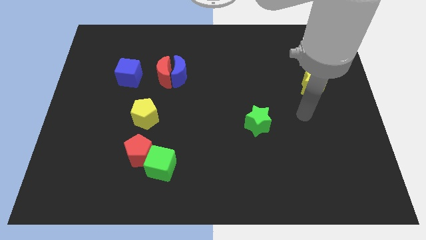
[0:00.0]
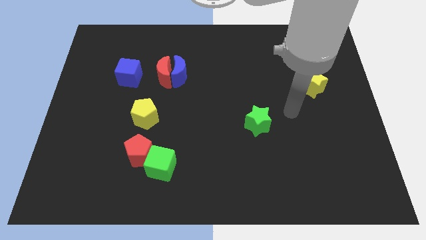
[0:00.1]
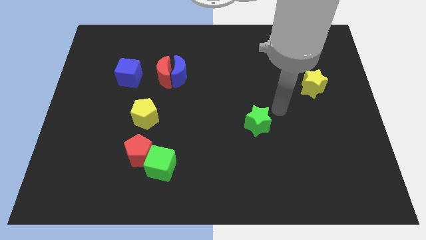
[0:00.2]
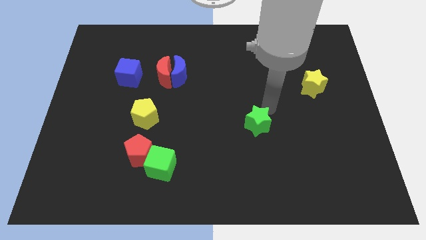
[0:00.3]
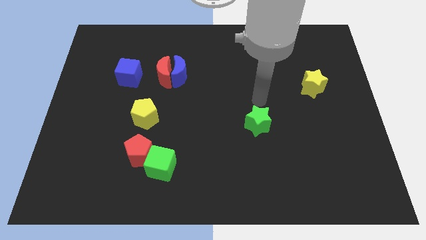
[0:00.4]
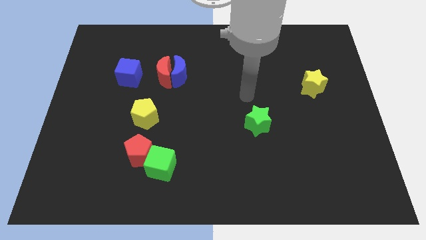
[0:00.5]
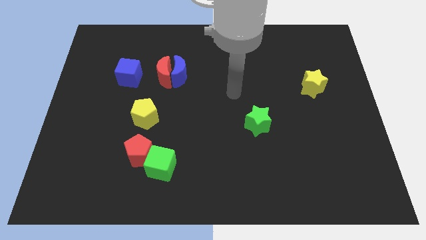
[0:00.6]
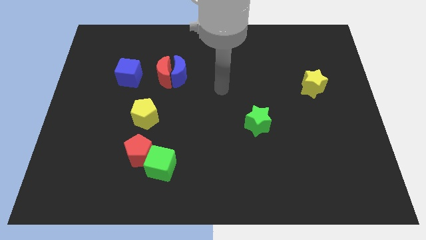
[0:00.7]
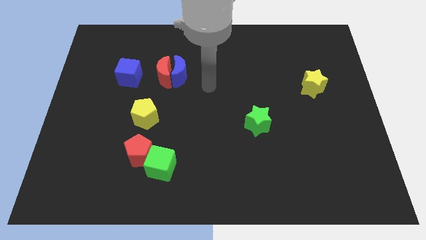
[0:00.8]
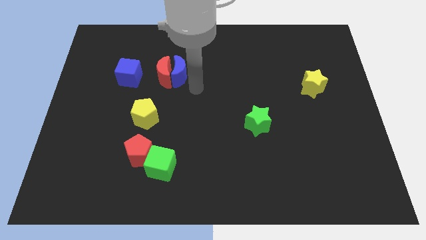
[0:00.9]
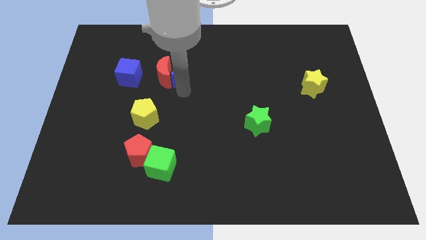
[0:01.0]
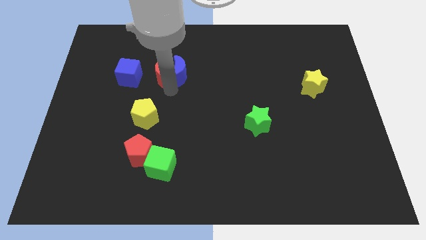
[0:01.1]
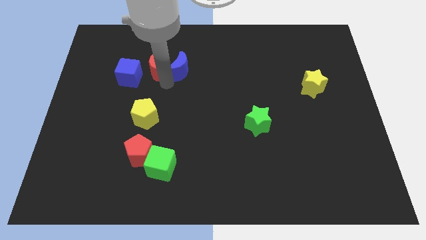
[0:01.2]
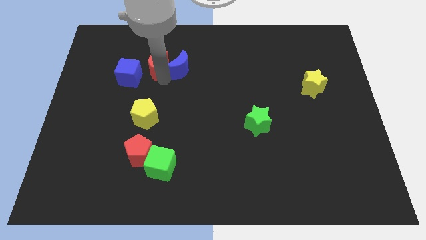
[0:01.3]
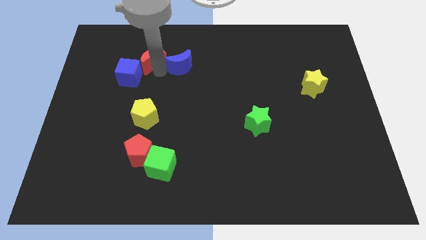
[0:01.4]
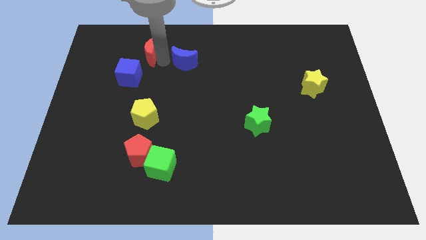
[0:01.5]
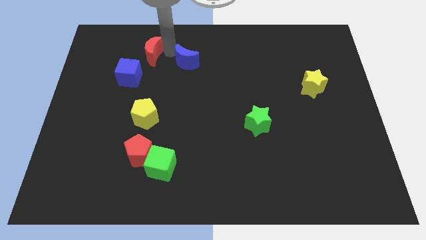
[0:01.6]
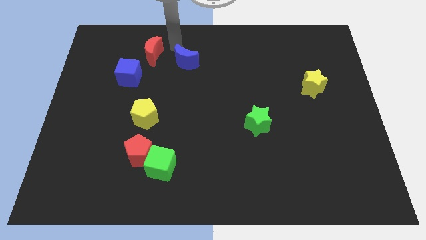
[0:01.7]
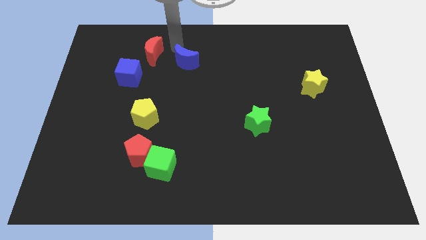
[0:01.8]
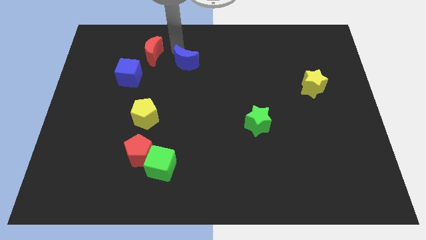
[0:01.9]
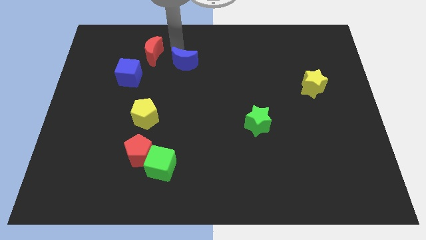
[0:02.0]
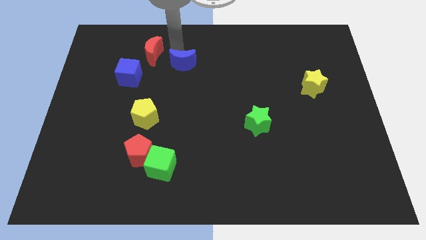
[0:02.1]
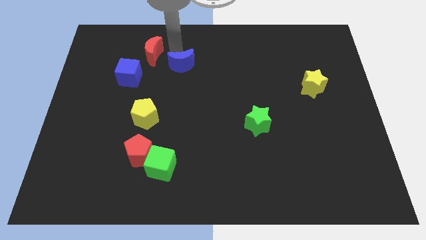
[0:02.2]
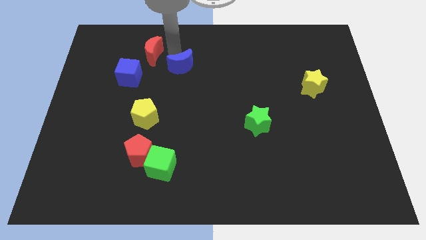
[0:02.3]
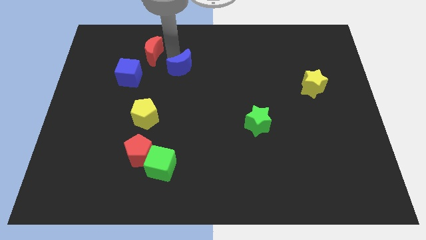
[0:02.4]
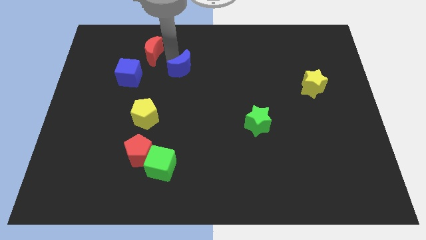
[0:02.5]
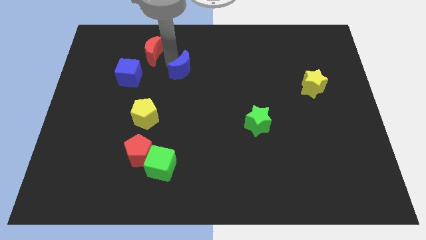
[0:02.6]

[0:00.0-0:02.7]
move the blue moon away from the red moon

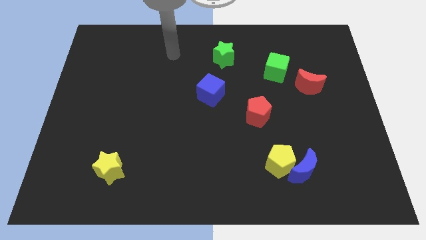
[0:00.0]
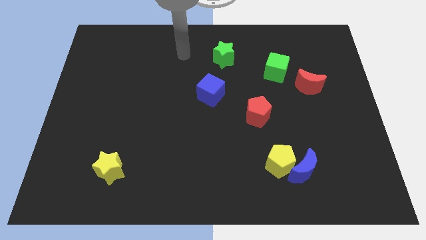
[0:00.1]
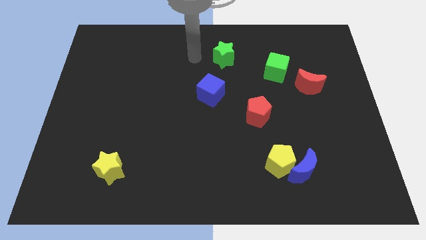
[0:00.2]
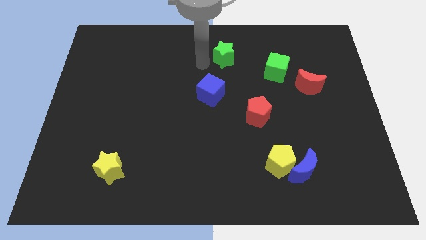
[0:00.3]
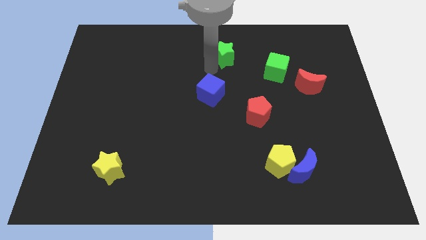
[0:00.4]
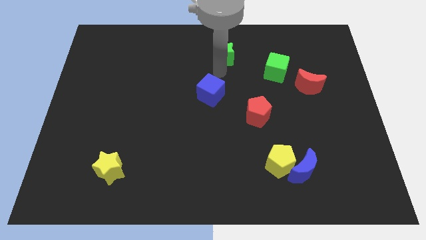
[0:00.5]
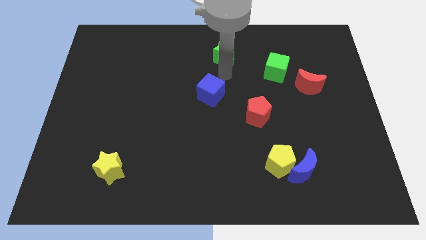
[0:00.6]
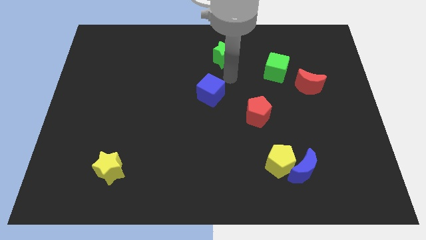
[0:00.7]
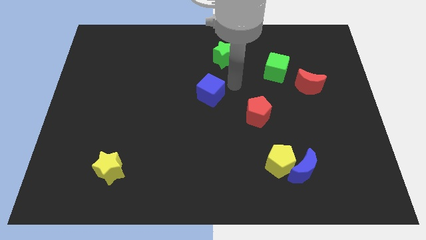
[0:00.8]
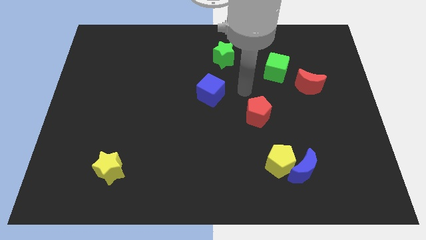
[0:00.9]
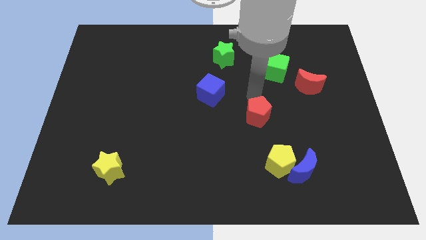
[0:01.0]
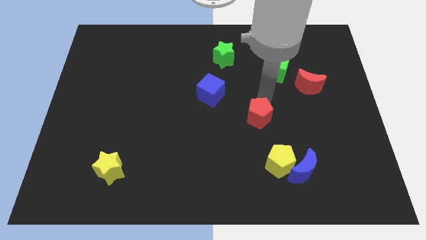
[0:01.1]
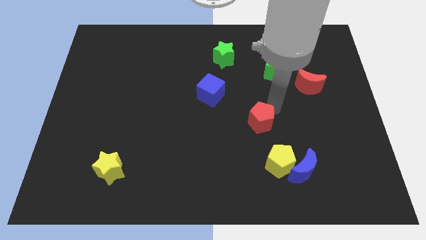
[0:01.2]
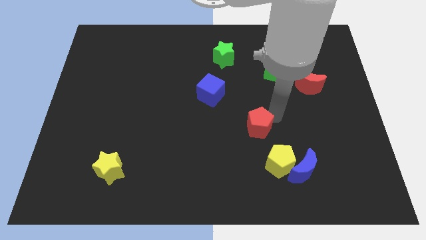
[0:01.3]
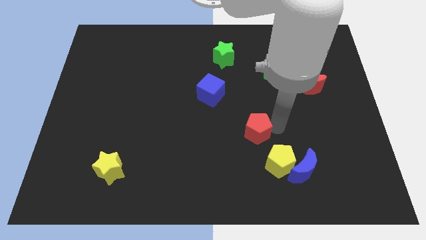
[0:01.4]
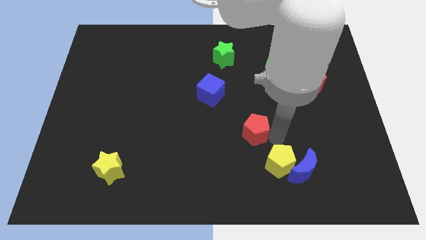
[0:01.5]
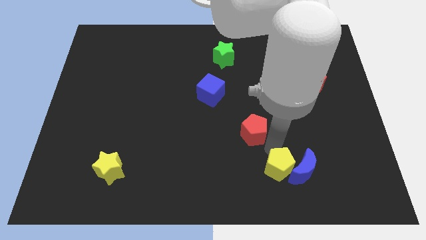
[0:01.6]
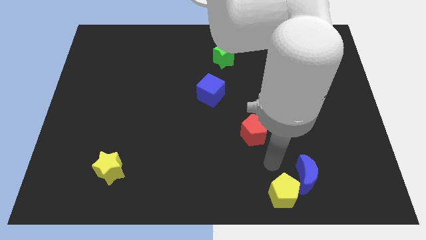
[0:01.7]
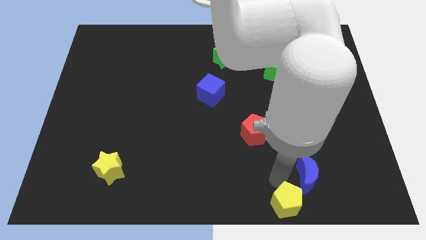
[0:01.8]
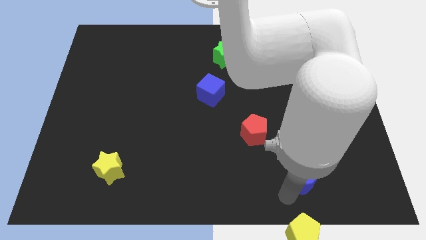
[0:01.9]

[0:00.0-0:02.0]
move the blue moon away from the yellow pentagon

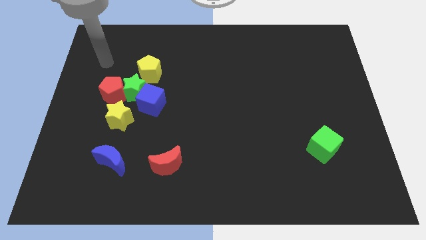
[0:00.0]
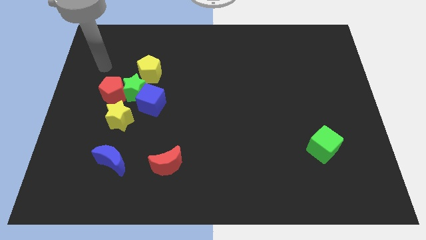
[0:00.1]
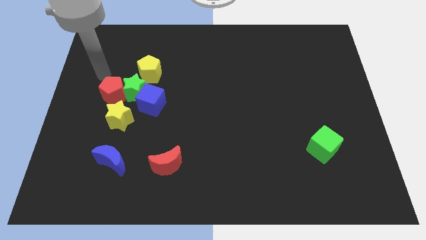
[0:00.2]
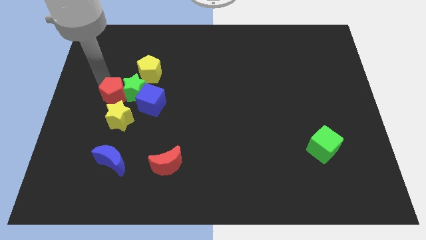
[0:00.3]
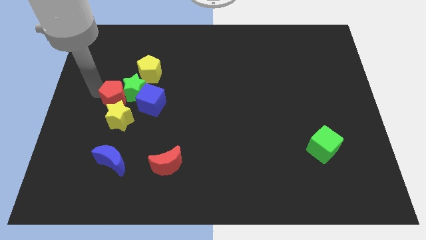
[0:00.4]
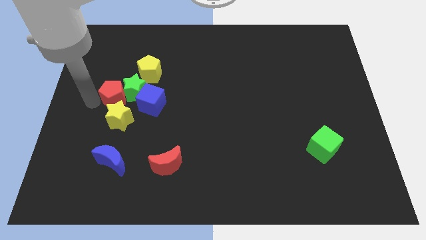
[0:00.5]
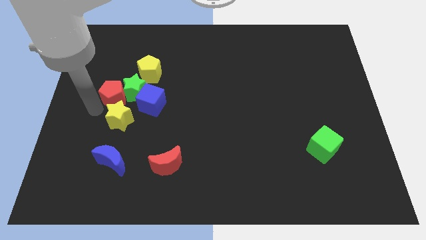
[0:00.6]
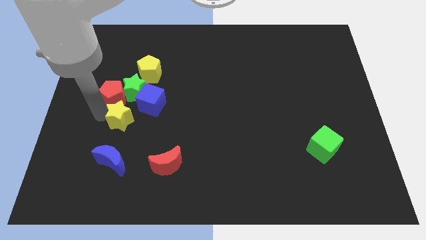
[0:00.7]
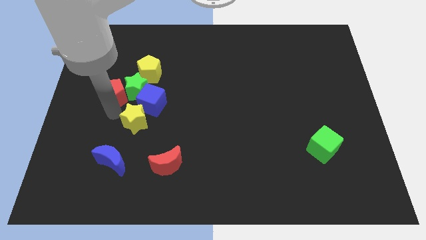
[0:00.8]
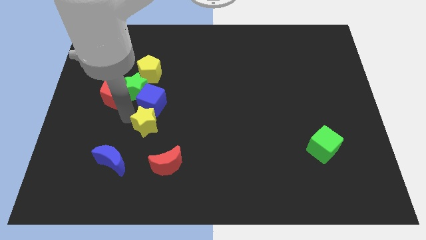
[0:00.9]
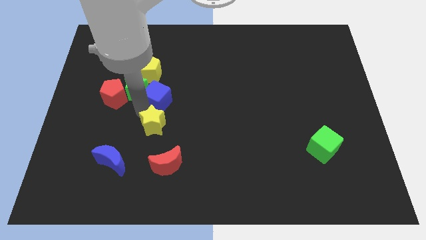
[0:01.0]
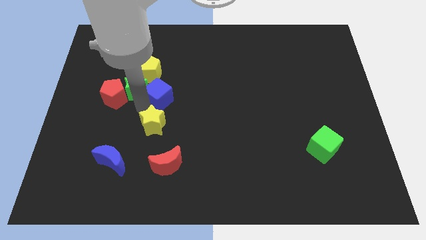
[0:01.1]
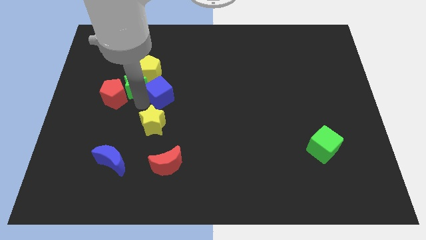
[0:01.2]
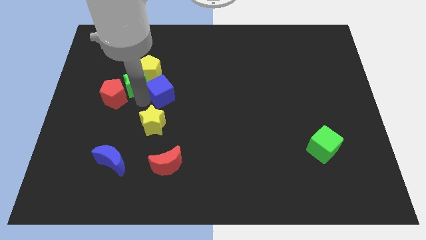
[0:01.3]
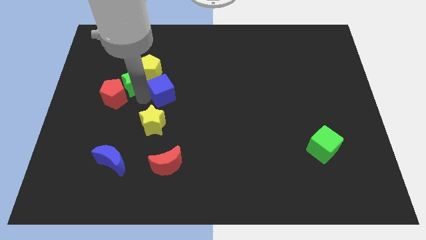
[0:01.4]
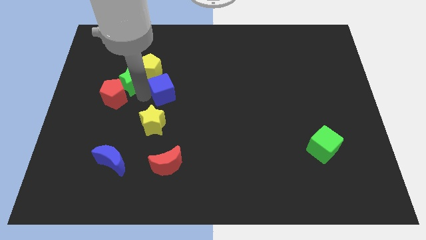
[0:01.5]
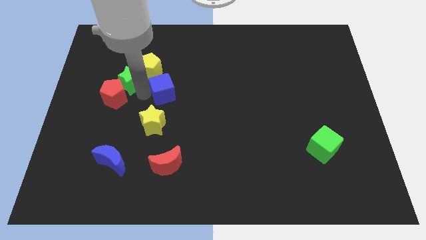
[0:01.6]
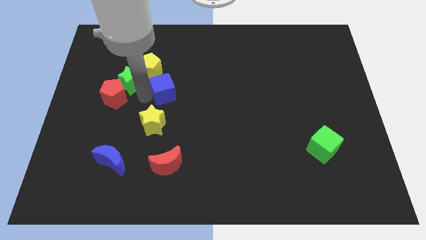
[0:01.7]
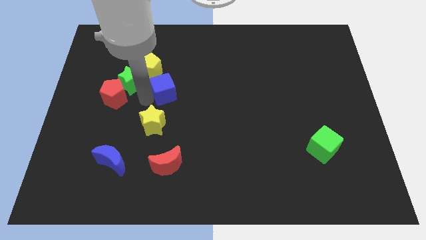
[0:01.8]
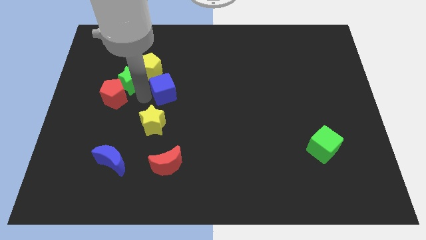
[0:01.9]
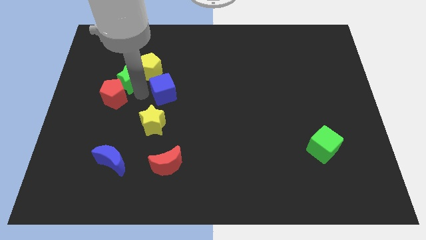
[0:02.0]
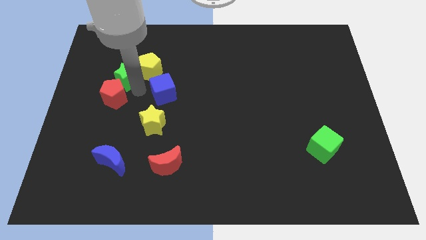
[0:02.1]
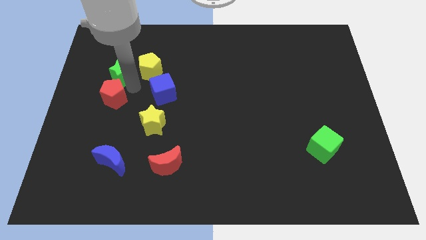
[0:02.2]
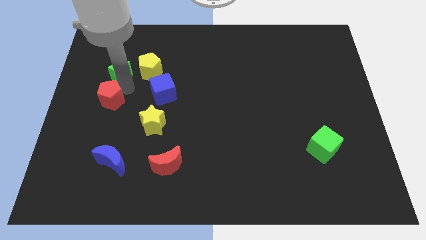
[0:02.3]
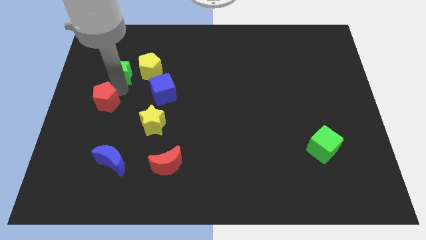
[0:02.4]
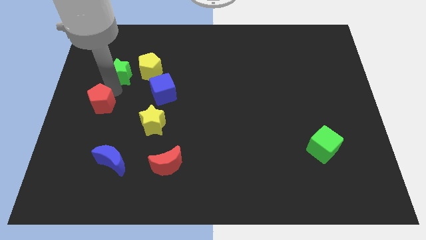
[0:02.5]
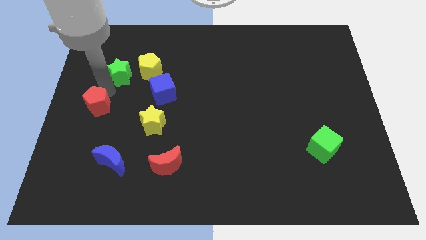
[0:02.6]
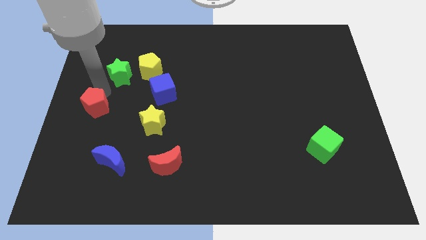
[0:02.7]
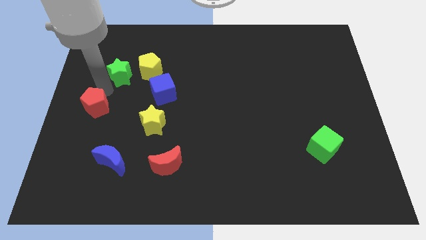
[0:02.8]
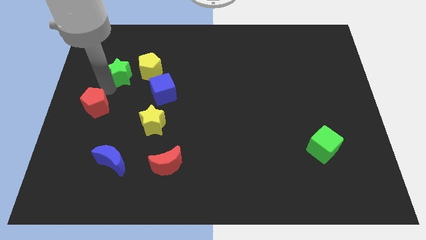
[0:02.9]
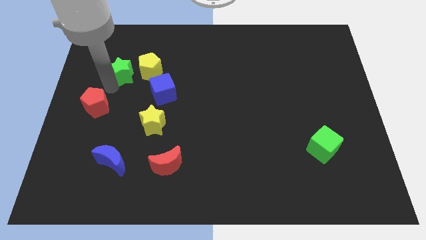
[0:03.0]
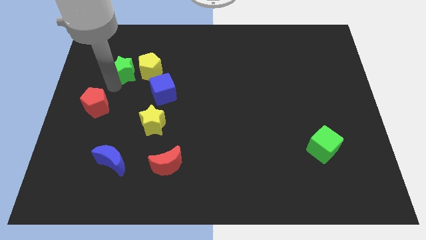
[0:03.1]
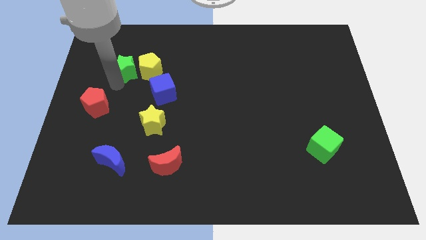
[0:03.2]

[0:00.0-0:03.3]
move the green star away from the group of blocks

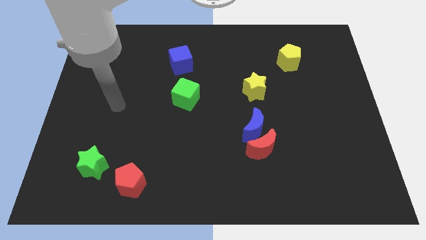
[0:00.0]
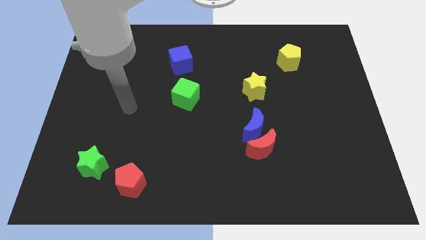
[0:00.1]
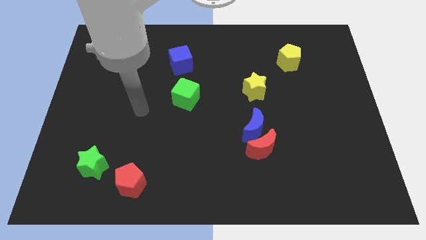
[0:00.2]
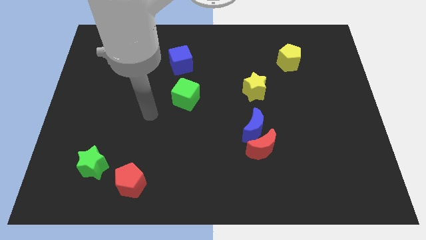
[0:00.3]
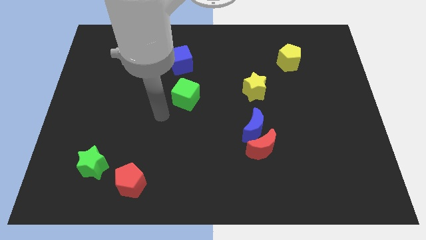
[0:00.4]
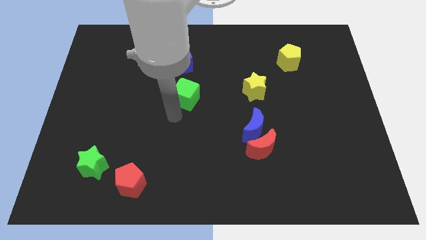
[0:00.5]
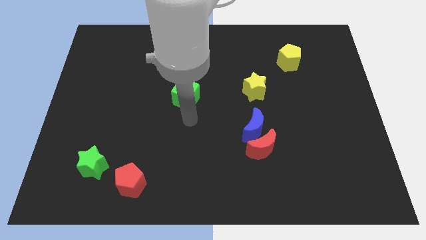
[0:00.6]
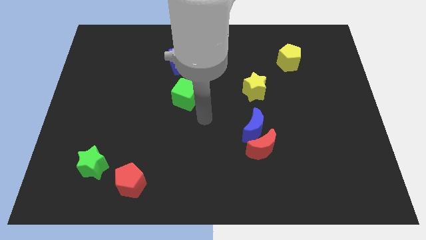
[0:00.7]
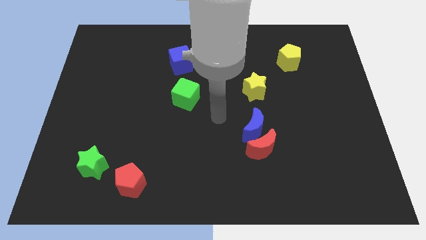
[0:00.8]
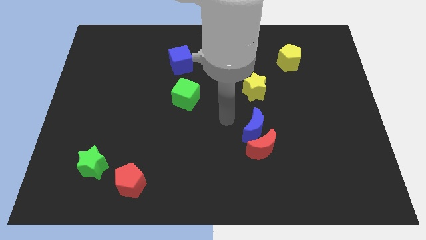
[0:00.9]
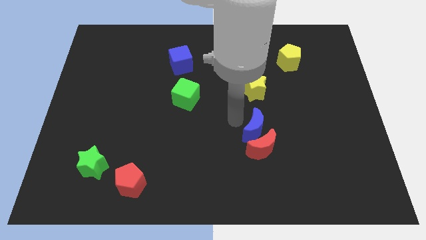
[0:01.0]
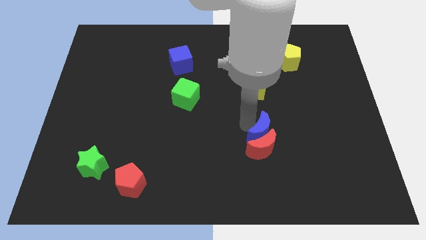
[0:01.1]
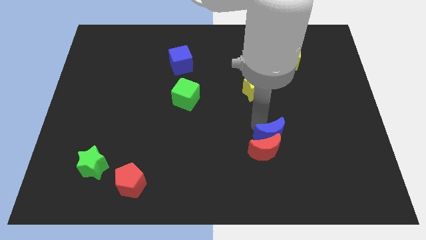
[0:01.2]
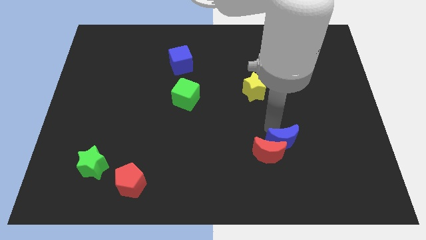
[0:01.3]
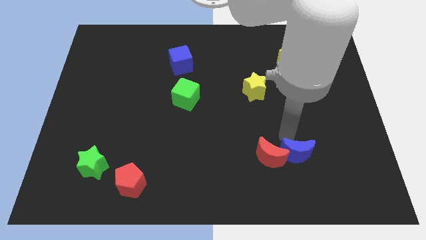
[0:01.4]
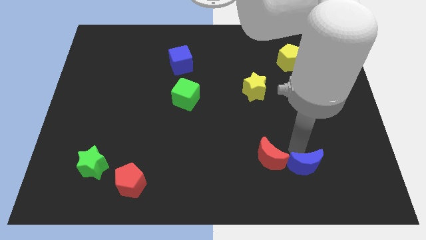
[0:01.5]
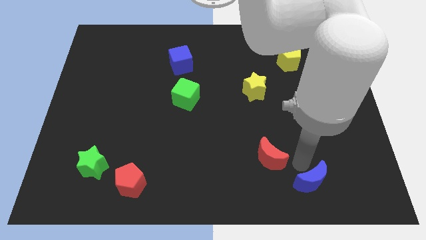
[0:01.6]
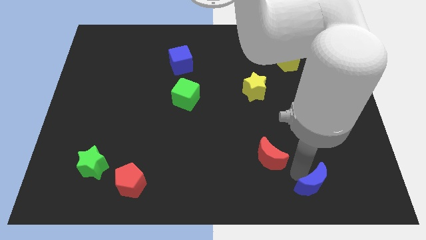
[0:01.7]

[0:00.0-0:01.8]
separate the red moon from the blue moon
